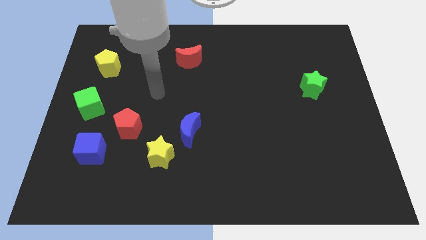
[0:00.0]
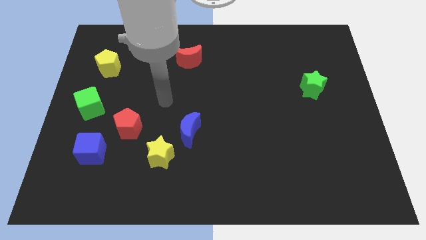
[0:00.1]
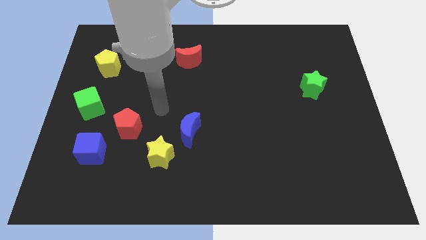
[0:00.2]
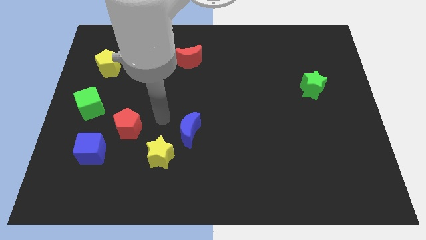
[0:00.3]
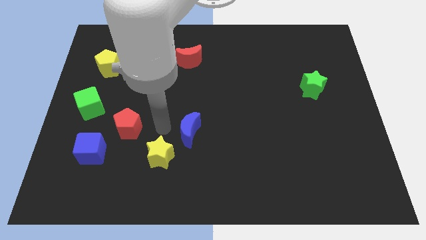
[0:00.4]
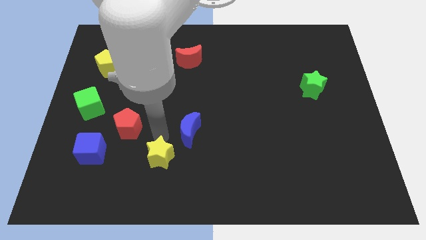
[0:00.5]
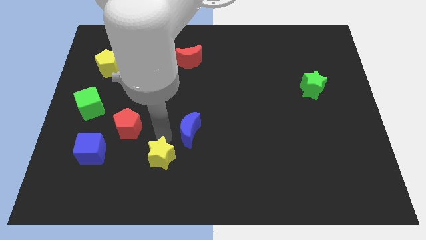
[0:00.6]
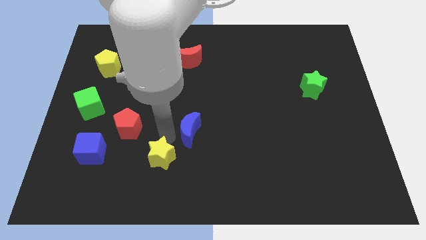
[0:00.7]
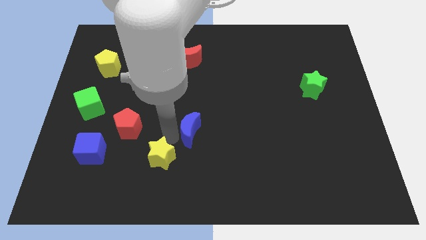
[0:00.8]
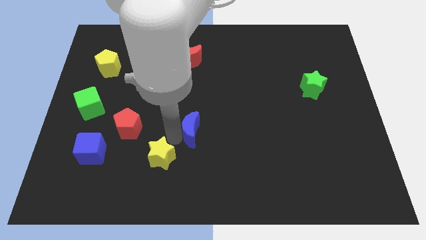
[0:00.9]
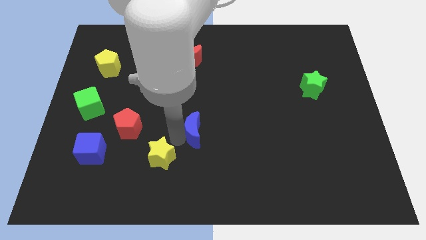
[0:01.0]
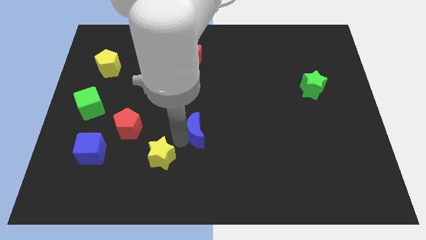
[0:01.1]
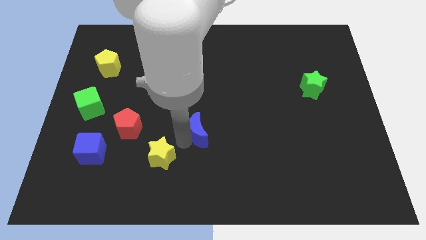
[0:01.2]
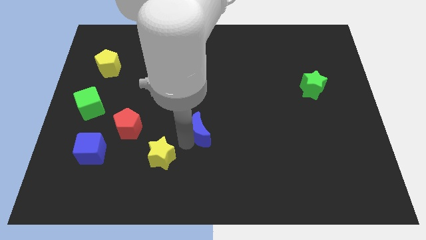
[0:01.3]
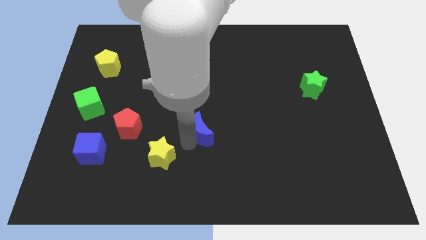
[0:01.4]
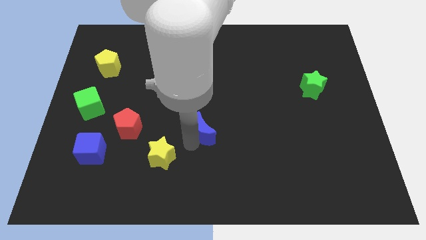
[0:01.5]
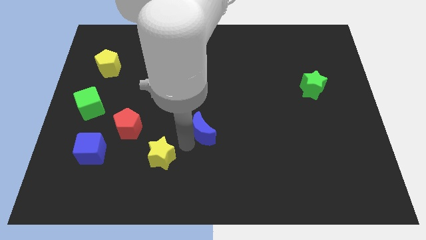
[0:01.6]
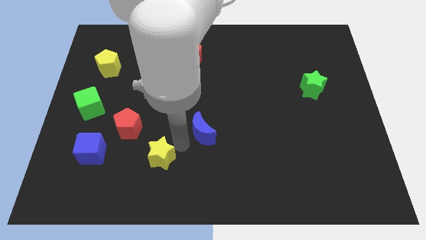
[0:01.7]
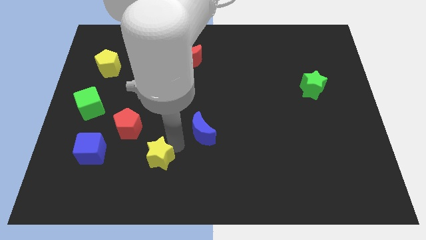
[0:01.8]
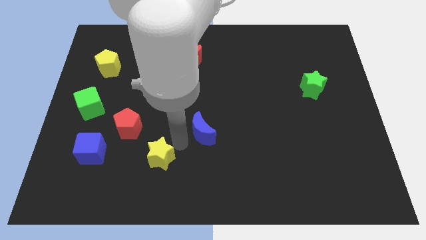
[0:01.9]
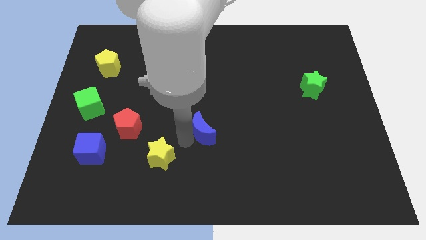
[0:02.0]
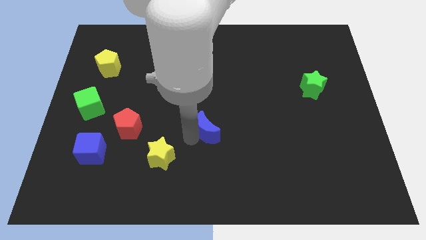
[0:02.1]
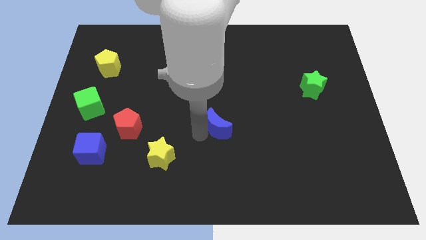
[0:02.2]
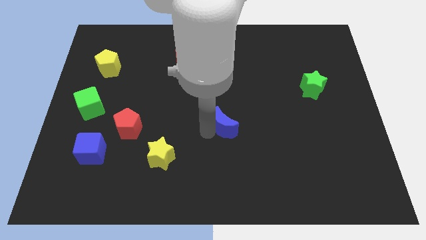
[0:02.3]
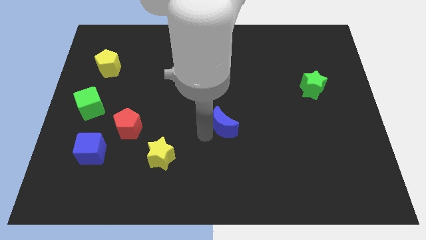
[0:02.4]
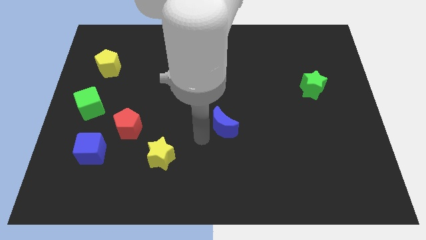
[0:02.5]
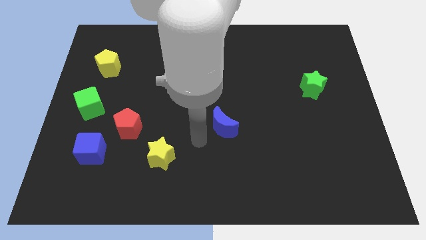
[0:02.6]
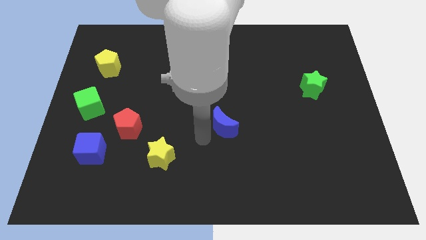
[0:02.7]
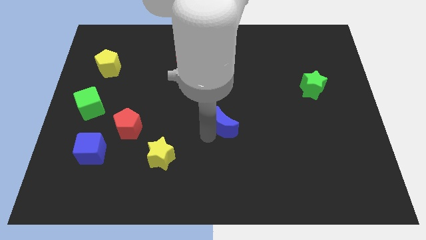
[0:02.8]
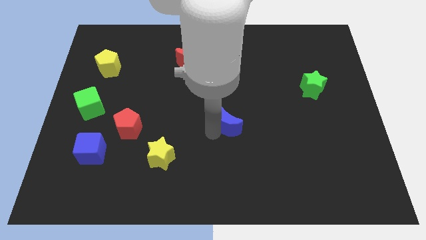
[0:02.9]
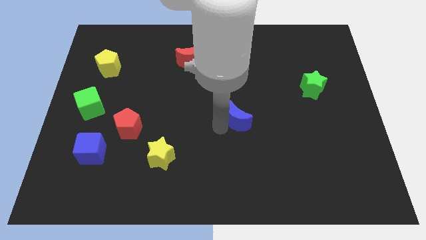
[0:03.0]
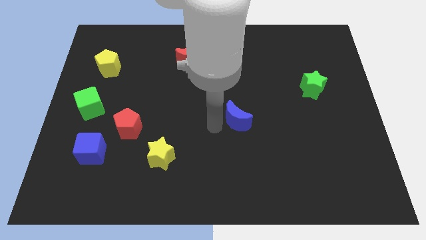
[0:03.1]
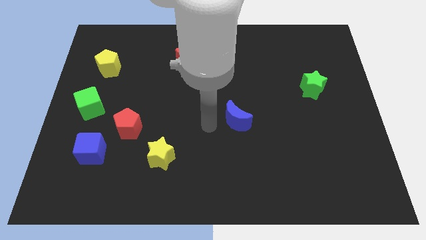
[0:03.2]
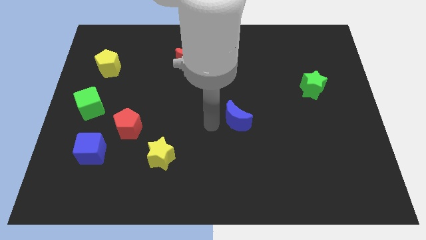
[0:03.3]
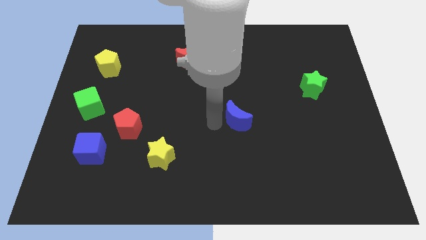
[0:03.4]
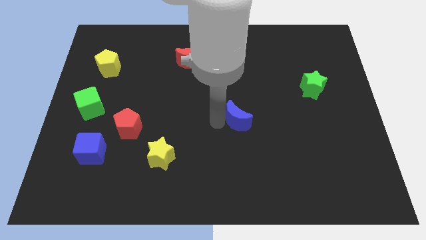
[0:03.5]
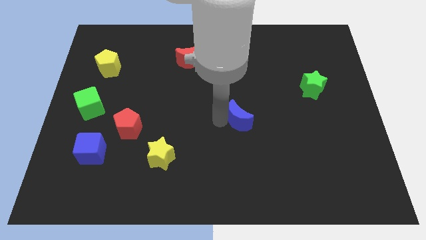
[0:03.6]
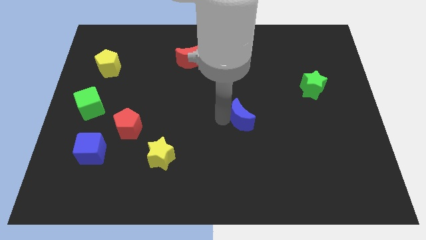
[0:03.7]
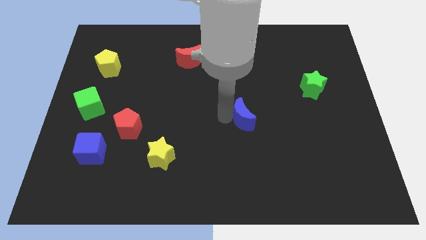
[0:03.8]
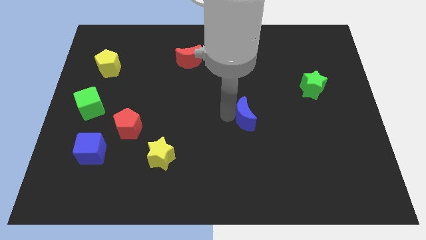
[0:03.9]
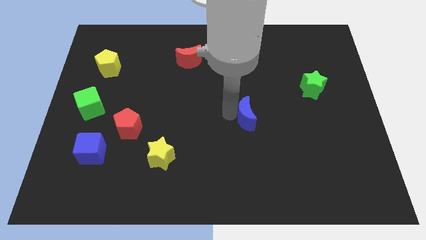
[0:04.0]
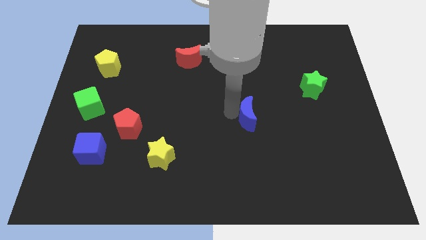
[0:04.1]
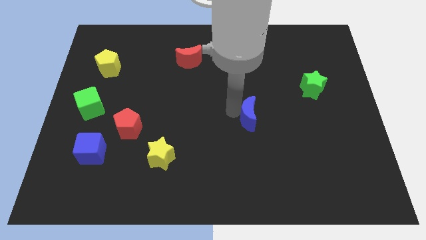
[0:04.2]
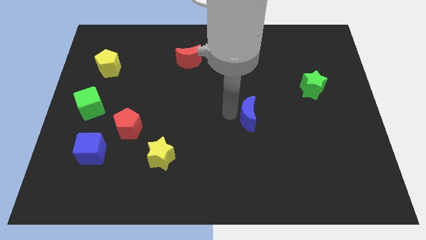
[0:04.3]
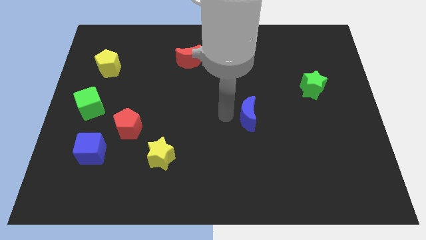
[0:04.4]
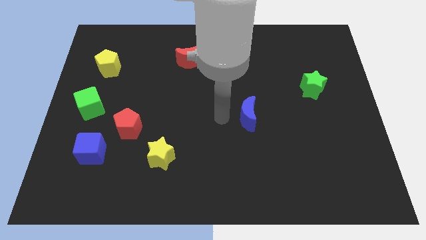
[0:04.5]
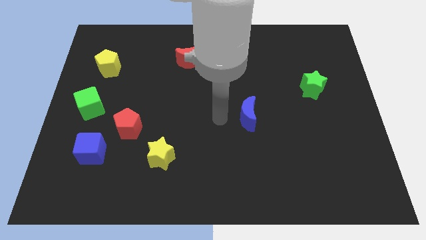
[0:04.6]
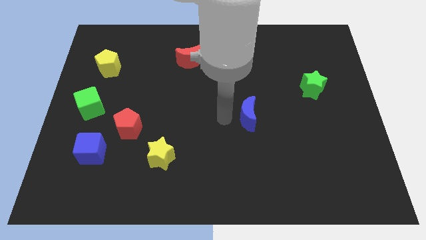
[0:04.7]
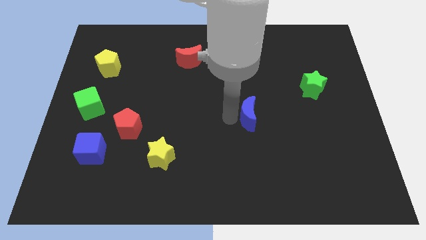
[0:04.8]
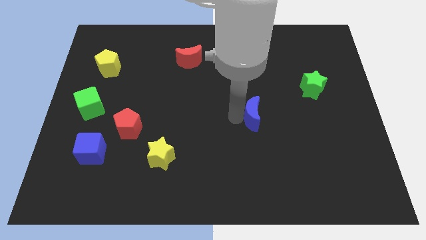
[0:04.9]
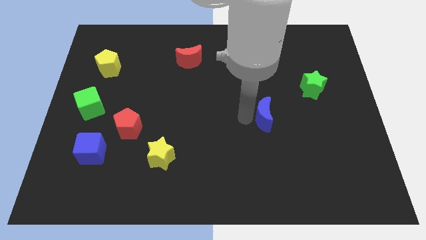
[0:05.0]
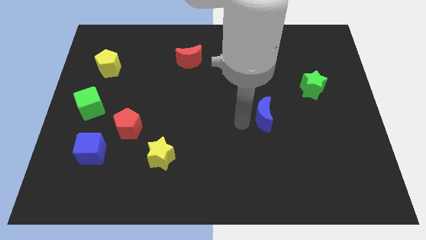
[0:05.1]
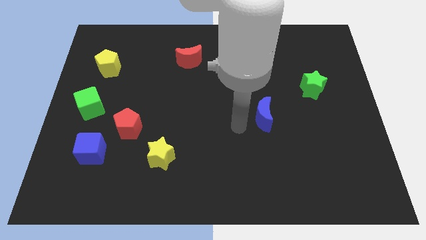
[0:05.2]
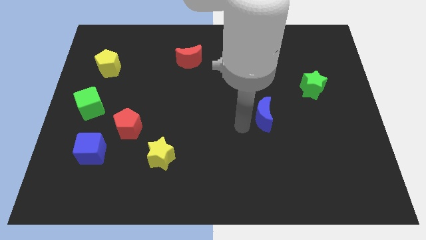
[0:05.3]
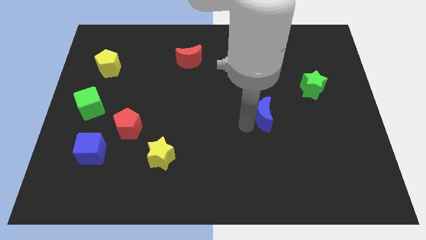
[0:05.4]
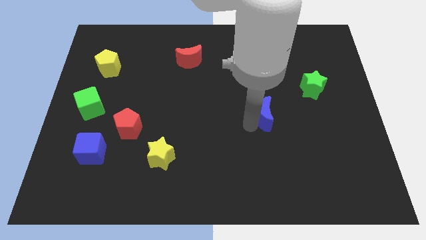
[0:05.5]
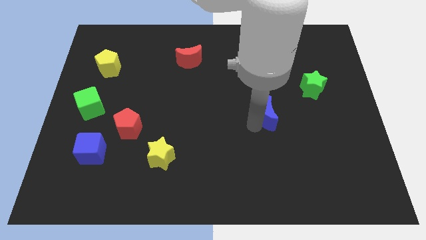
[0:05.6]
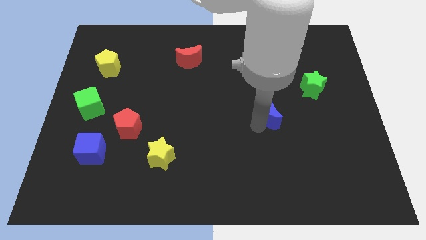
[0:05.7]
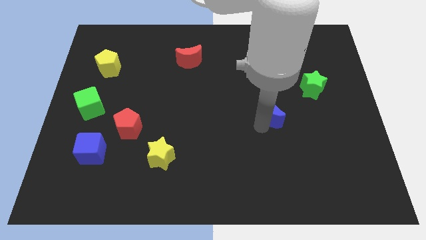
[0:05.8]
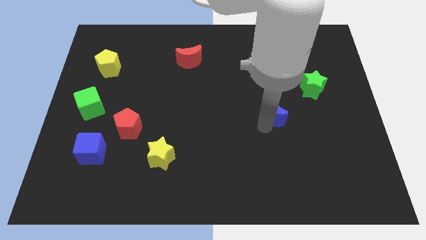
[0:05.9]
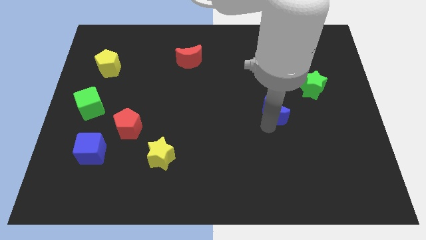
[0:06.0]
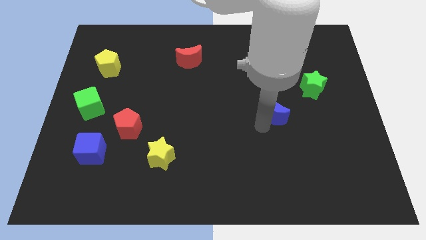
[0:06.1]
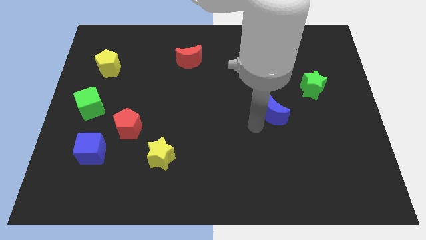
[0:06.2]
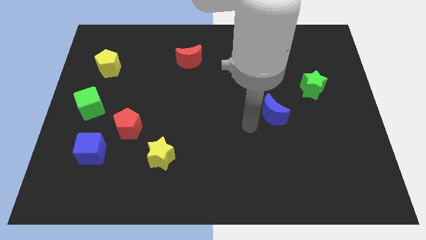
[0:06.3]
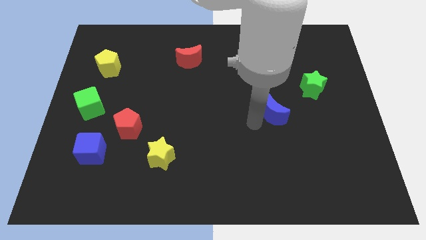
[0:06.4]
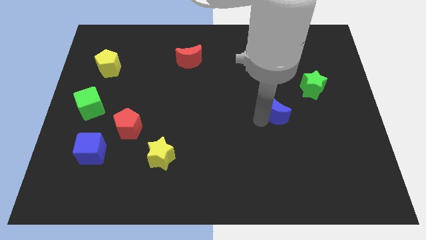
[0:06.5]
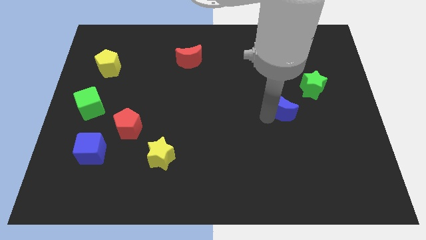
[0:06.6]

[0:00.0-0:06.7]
put the blue moon to the bottom left side of the green star

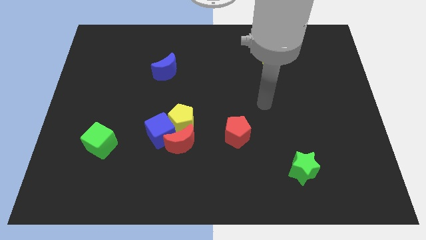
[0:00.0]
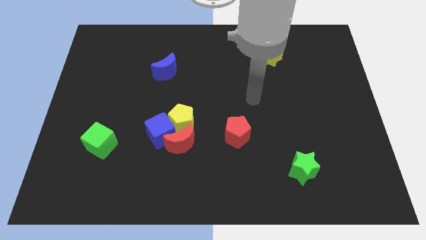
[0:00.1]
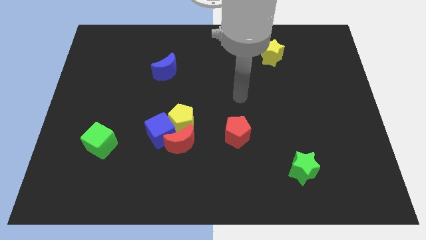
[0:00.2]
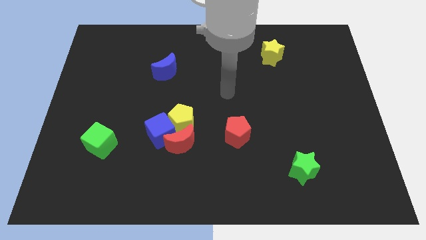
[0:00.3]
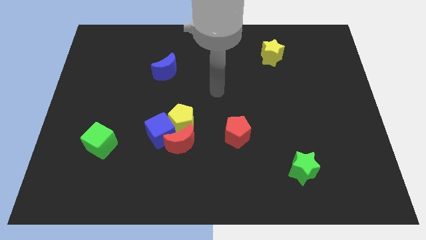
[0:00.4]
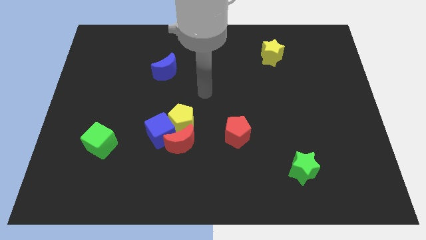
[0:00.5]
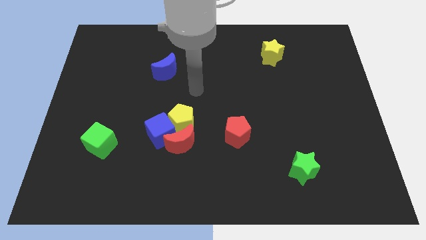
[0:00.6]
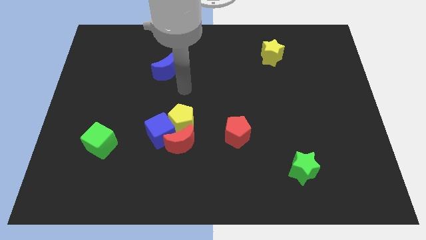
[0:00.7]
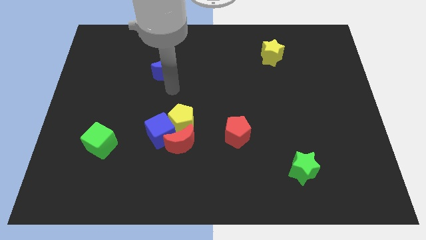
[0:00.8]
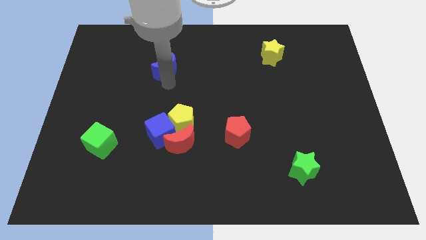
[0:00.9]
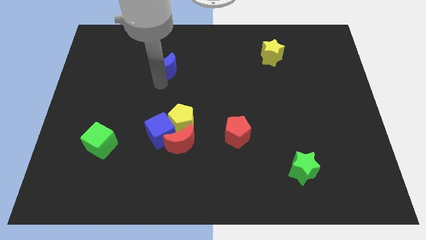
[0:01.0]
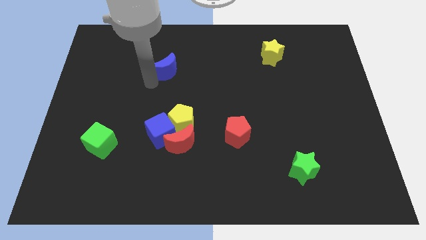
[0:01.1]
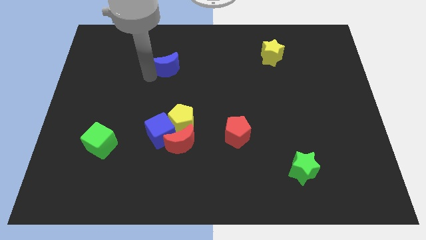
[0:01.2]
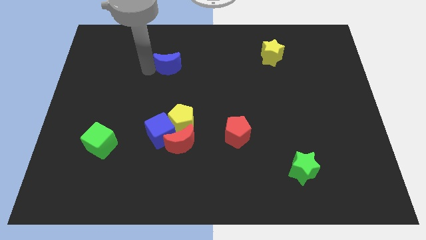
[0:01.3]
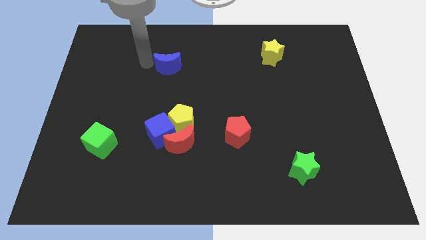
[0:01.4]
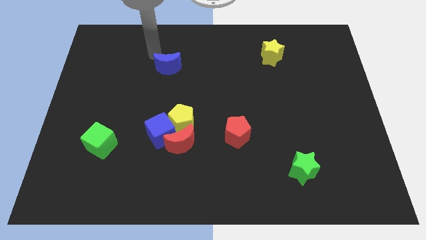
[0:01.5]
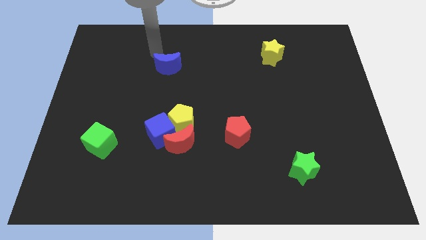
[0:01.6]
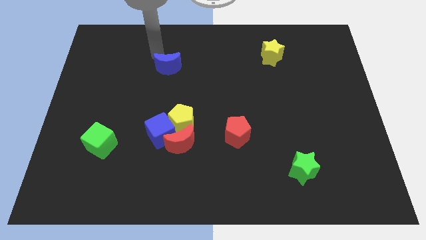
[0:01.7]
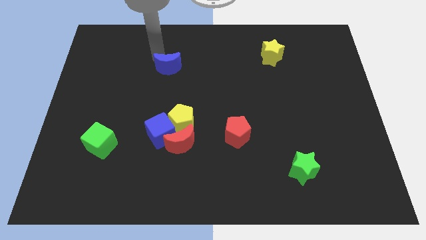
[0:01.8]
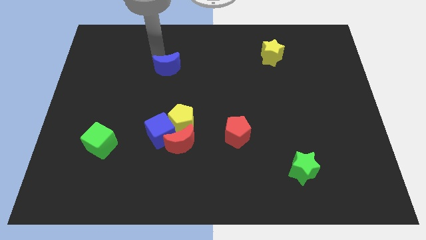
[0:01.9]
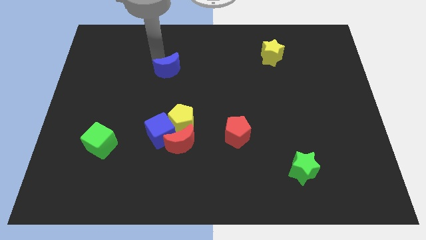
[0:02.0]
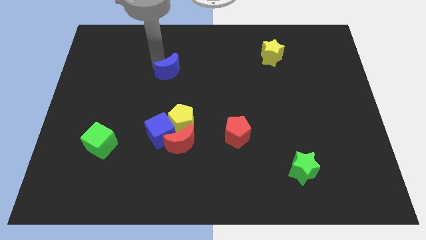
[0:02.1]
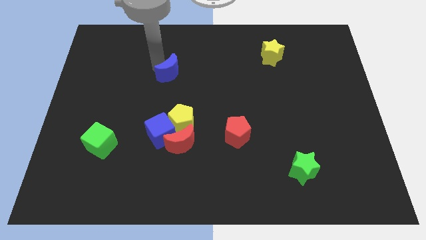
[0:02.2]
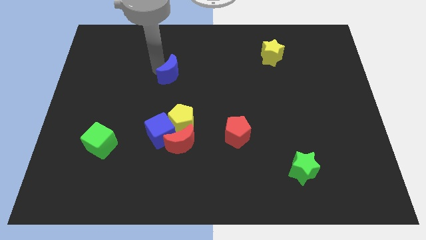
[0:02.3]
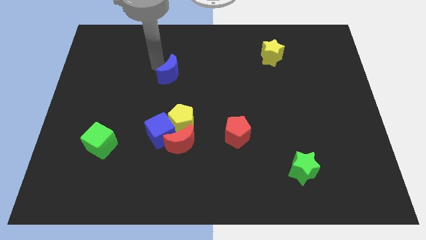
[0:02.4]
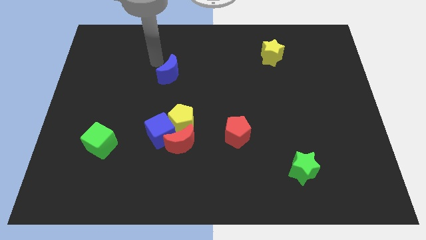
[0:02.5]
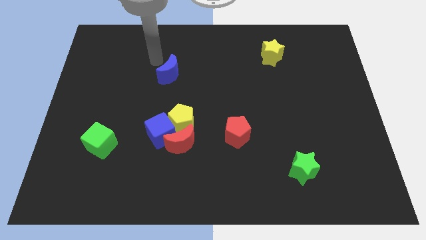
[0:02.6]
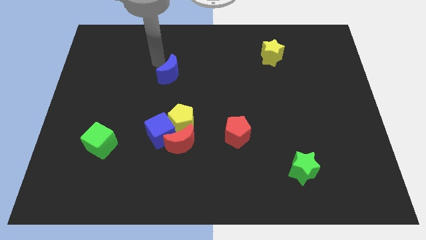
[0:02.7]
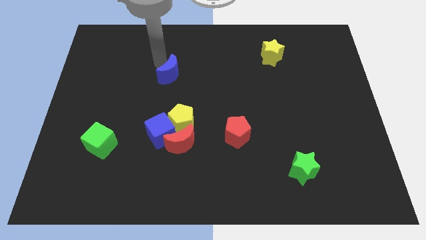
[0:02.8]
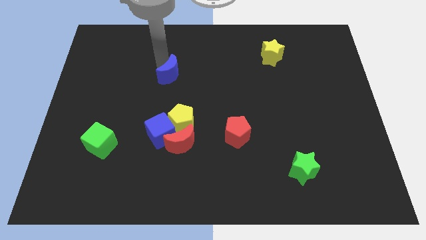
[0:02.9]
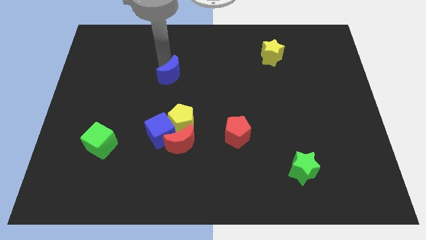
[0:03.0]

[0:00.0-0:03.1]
move the blue moon to the top of the yellow pentagon
